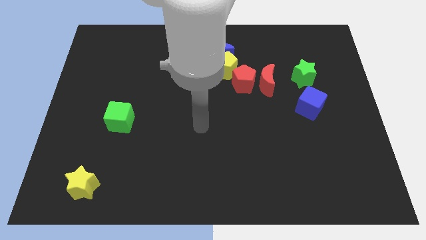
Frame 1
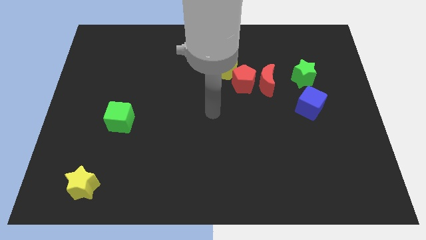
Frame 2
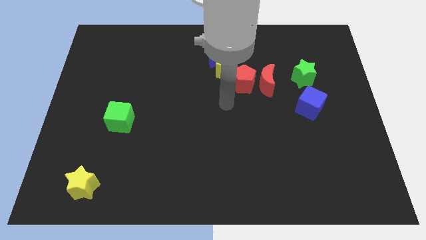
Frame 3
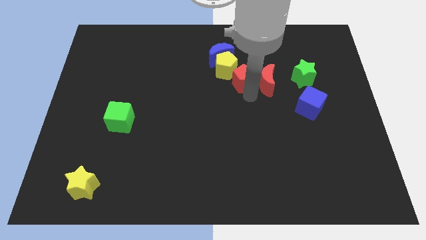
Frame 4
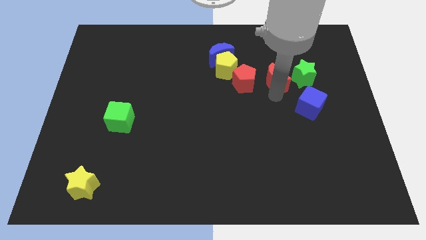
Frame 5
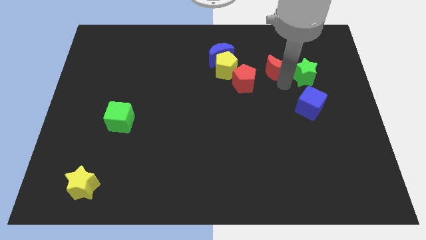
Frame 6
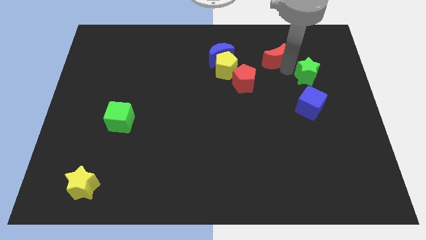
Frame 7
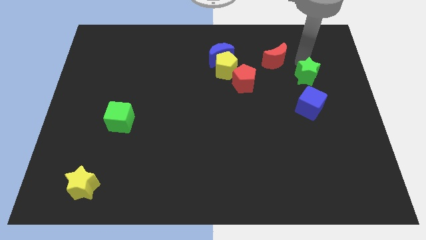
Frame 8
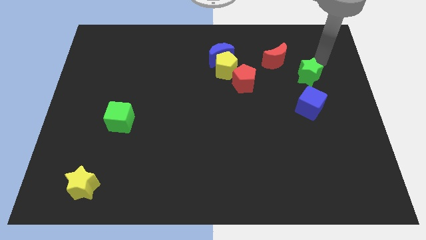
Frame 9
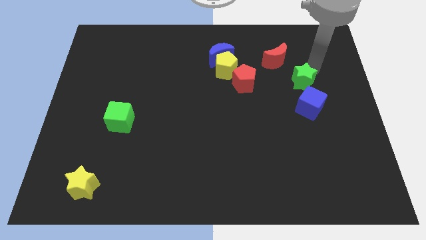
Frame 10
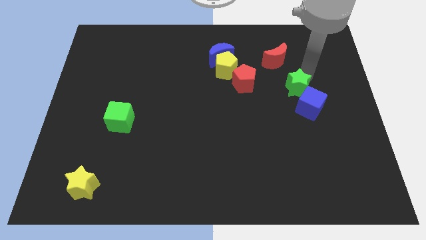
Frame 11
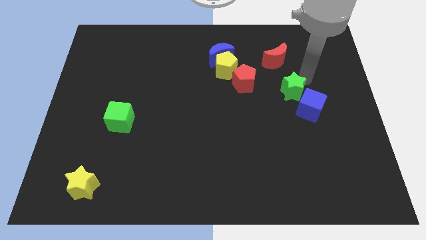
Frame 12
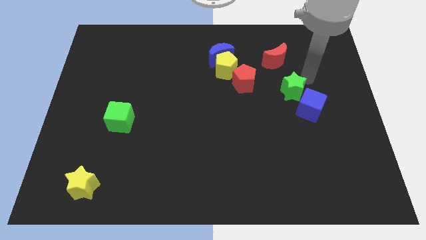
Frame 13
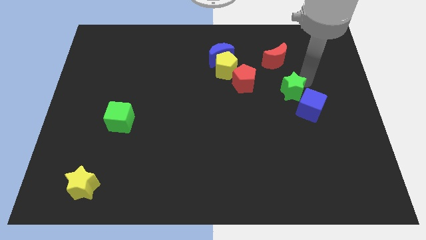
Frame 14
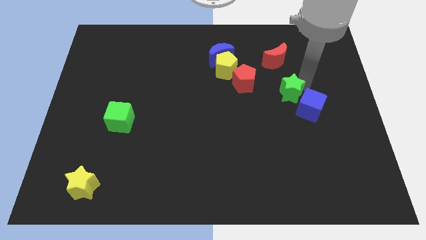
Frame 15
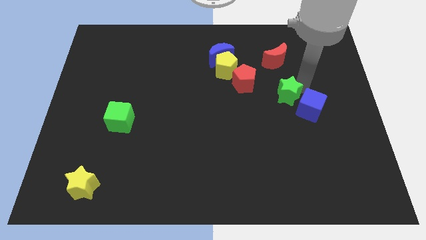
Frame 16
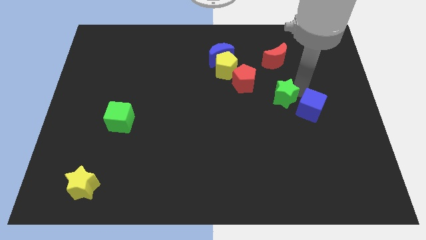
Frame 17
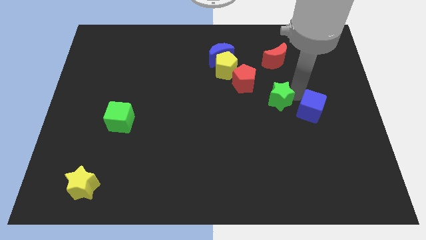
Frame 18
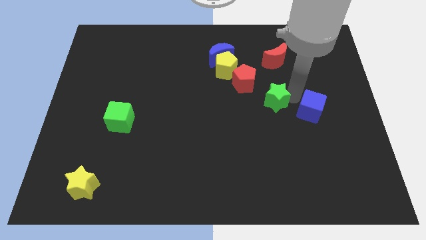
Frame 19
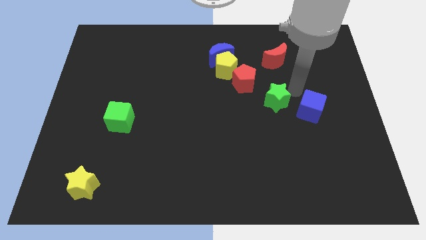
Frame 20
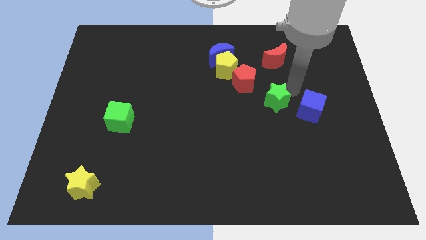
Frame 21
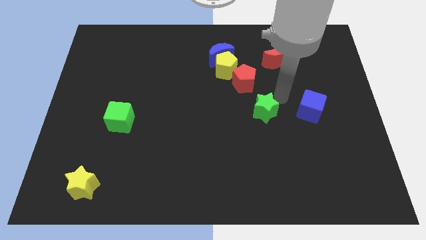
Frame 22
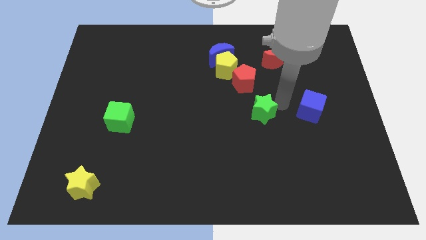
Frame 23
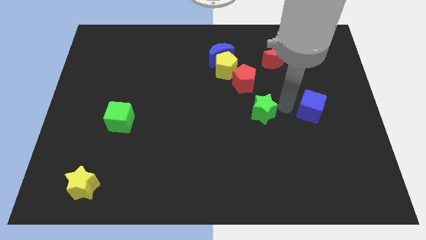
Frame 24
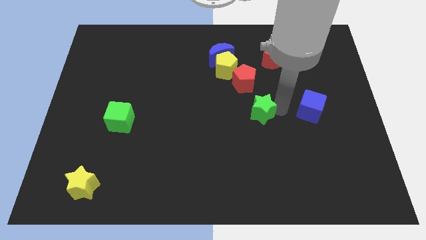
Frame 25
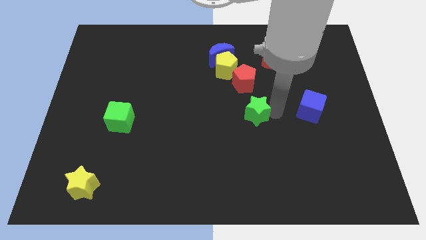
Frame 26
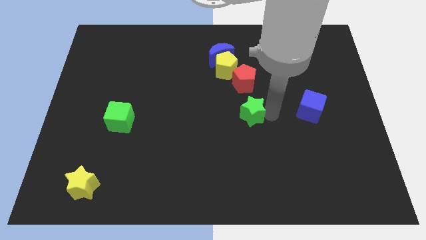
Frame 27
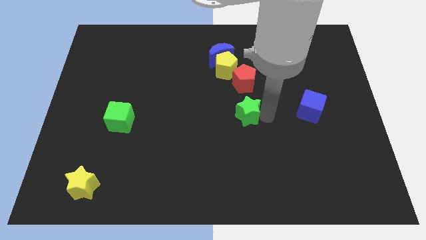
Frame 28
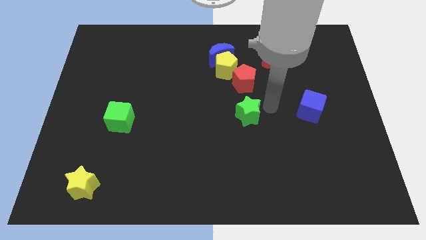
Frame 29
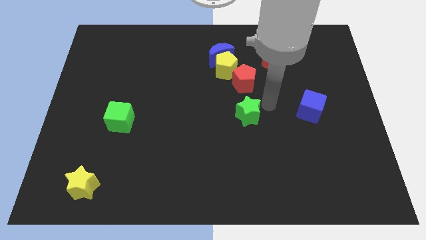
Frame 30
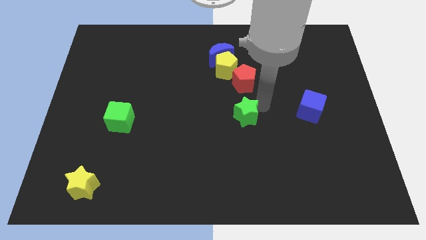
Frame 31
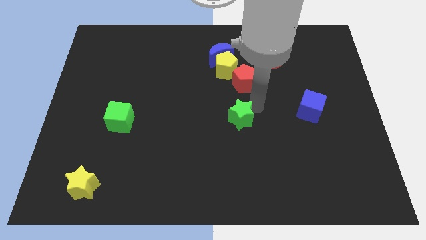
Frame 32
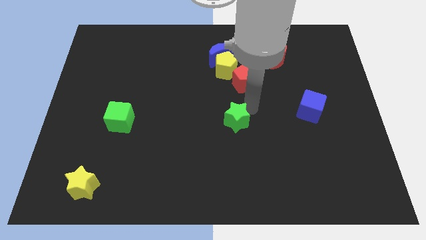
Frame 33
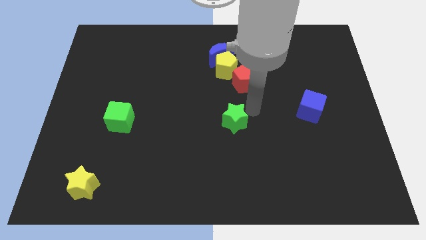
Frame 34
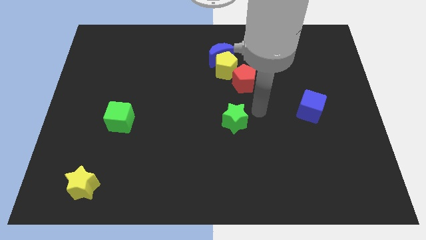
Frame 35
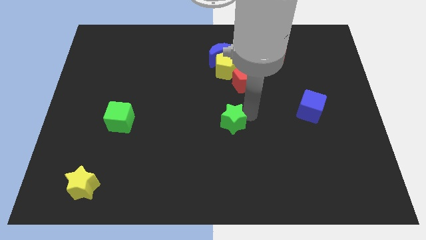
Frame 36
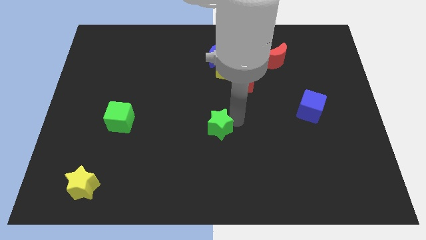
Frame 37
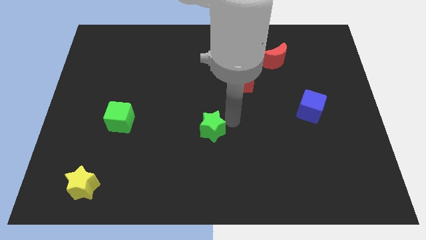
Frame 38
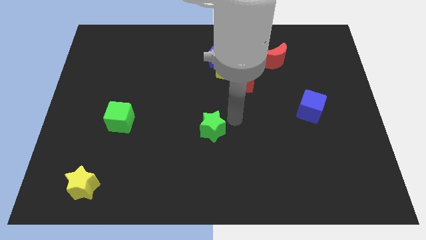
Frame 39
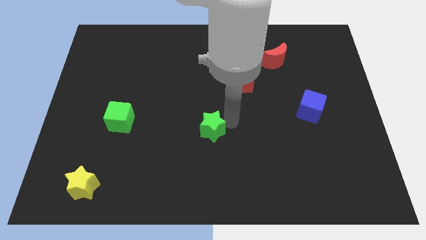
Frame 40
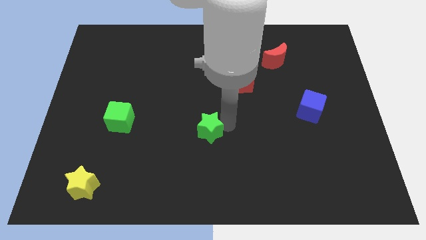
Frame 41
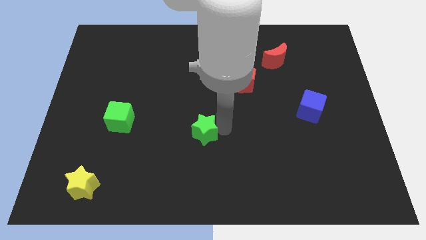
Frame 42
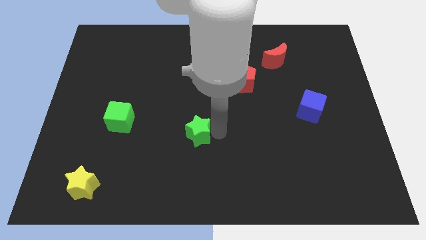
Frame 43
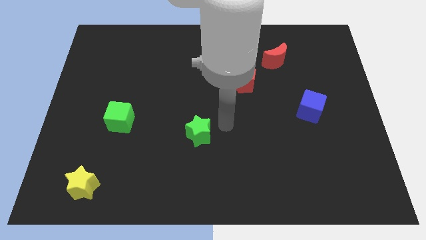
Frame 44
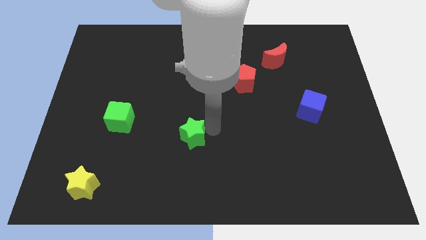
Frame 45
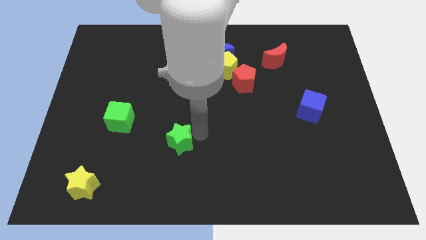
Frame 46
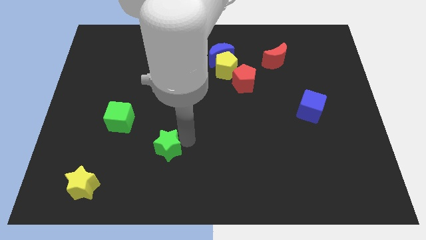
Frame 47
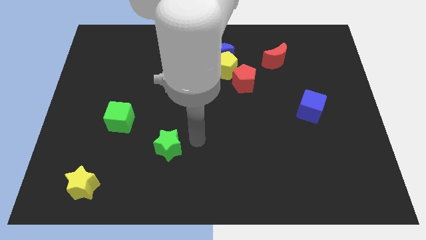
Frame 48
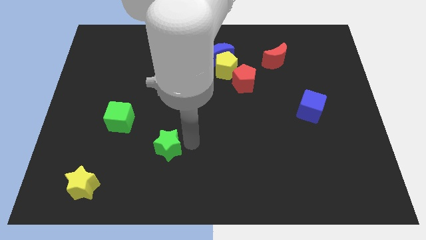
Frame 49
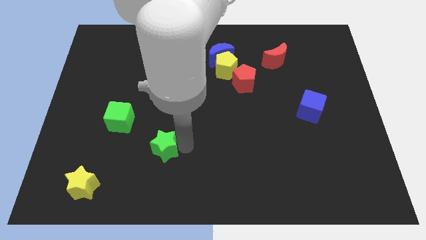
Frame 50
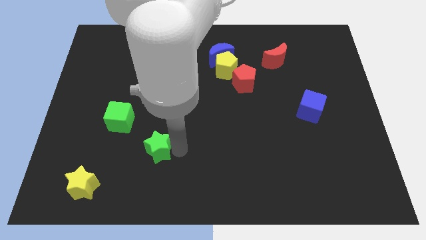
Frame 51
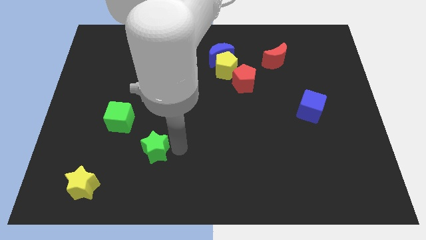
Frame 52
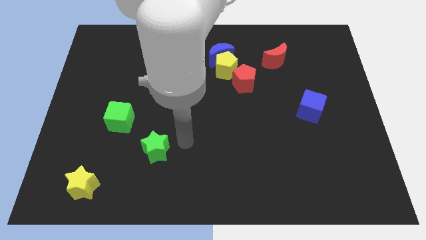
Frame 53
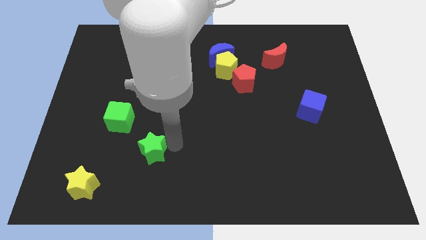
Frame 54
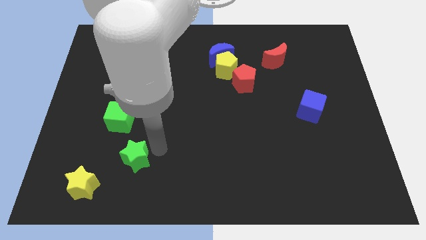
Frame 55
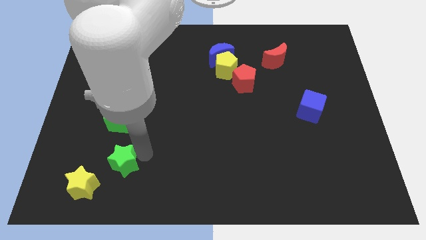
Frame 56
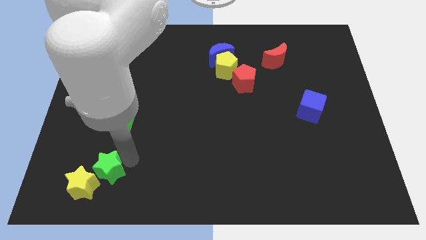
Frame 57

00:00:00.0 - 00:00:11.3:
push the green star towards the yellow star

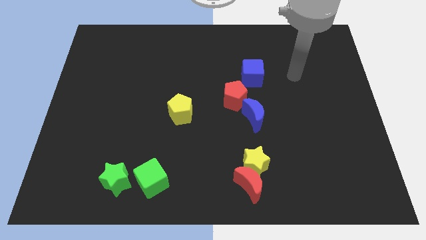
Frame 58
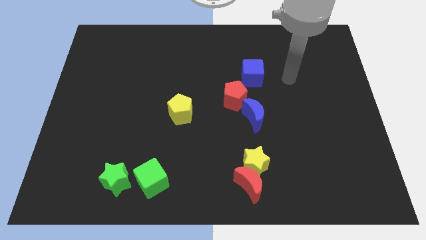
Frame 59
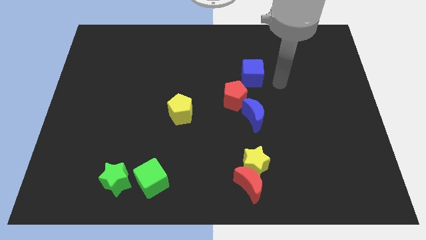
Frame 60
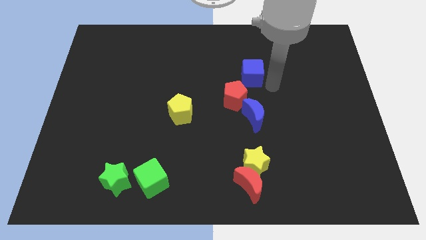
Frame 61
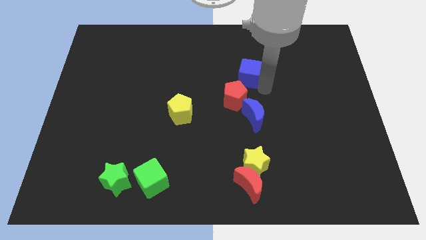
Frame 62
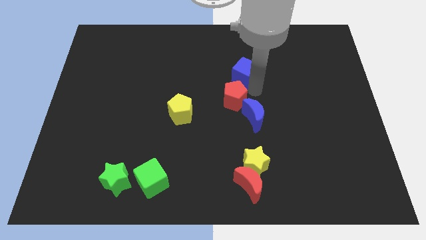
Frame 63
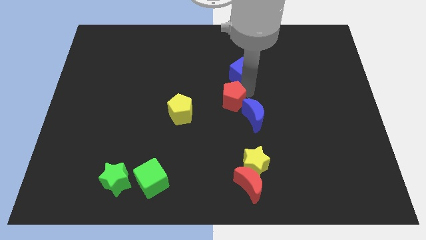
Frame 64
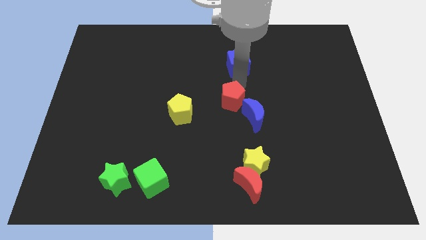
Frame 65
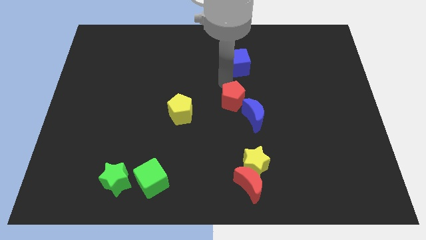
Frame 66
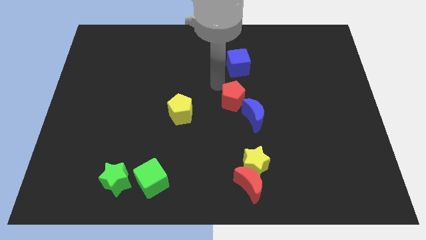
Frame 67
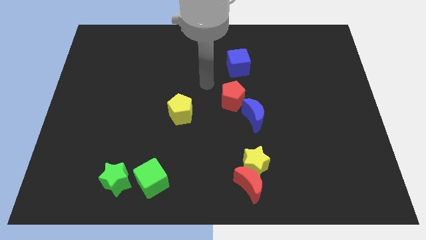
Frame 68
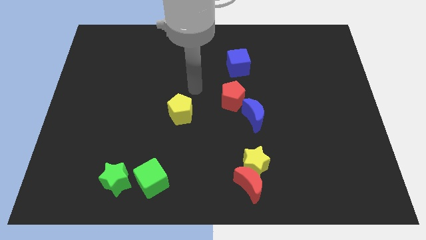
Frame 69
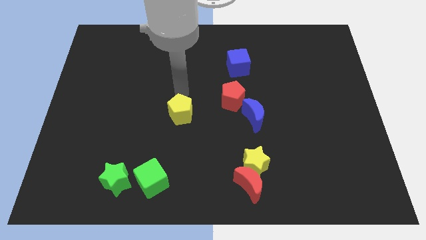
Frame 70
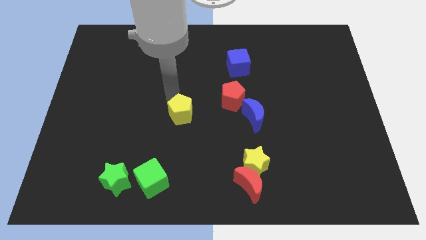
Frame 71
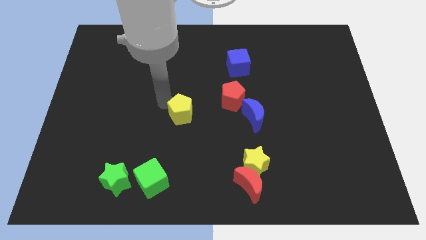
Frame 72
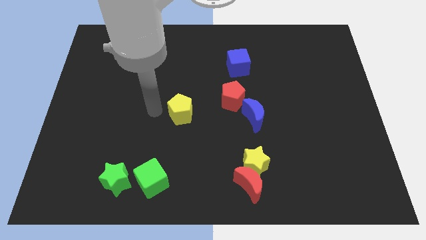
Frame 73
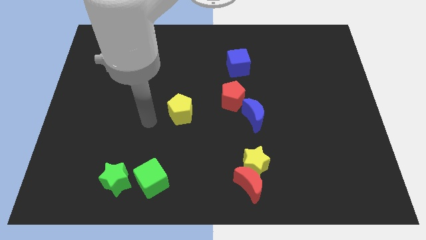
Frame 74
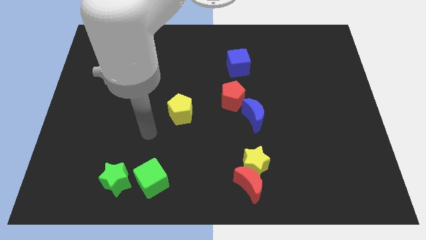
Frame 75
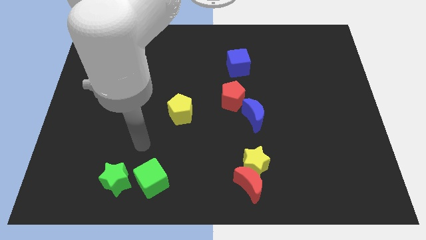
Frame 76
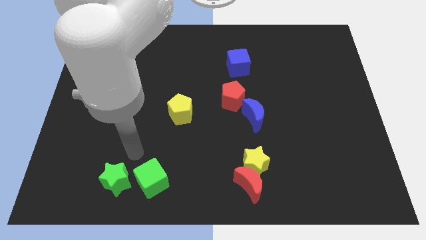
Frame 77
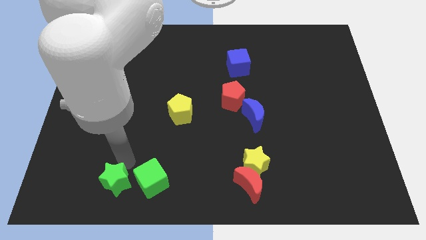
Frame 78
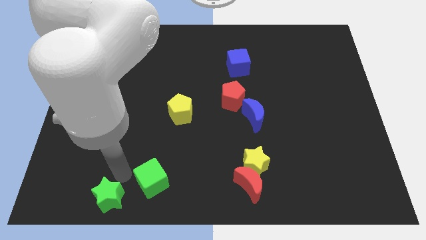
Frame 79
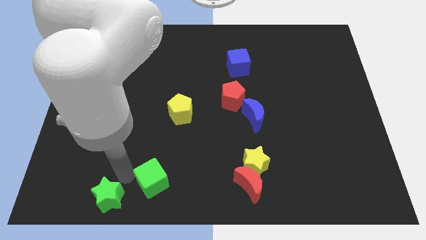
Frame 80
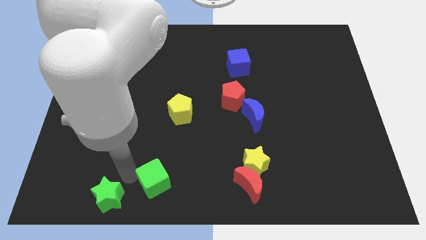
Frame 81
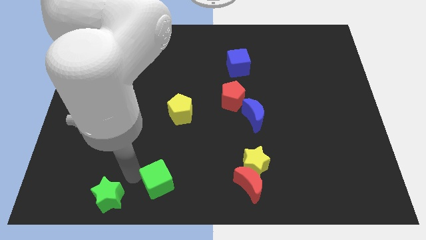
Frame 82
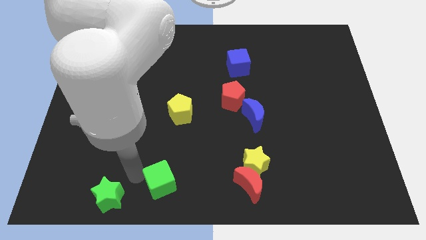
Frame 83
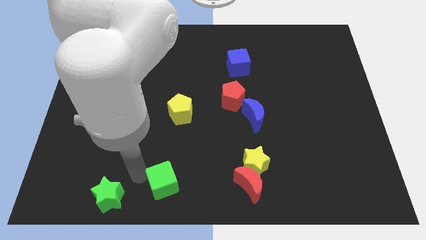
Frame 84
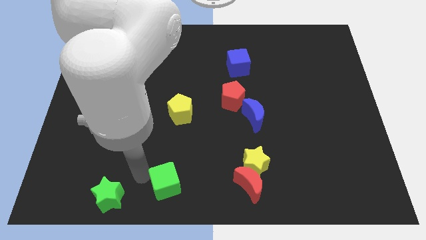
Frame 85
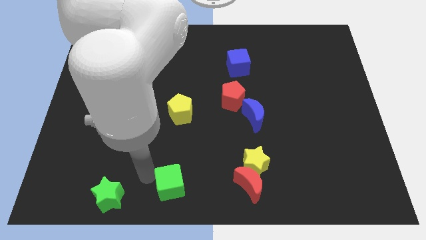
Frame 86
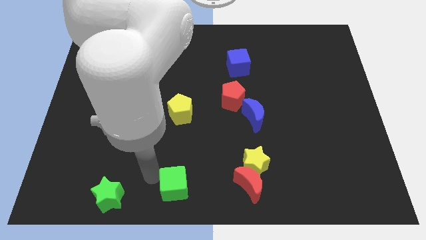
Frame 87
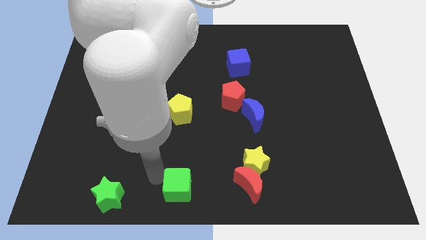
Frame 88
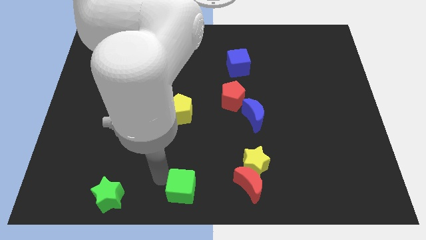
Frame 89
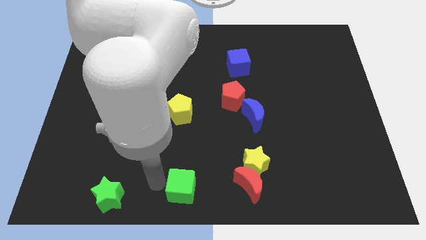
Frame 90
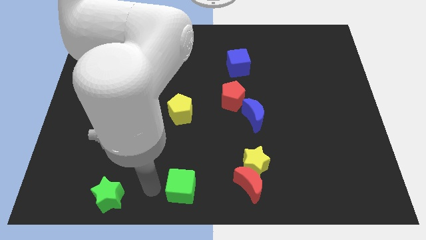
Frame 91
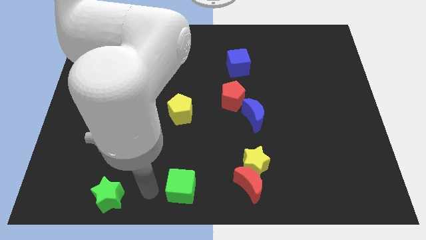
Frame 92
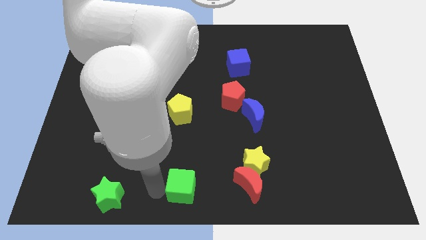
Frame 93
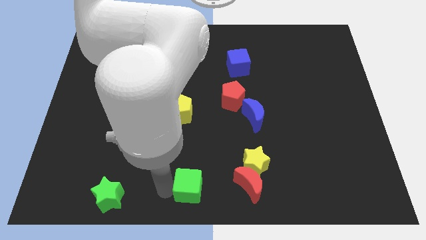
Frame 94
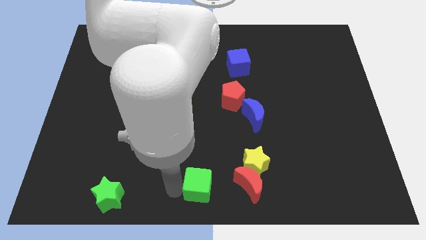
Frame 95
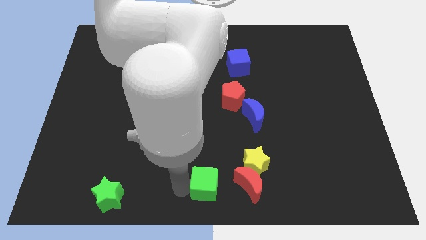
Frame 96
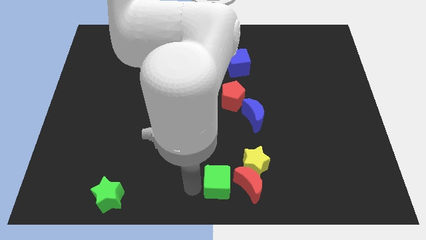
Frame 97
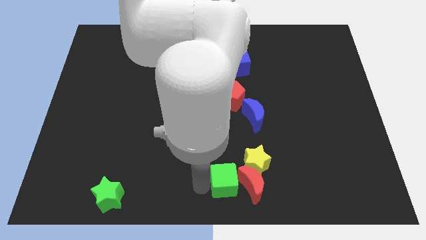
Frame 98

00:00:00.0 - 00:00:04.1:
put the green cube towards the red moon
